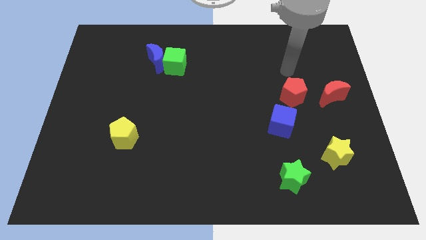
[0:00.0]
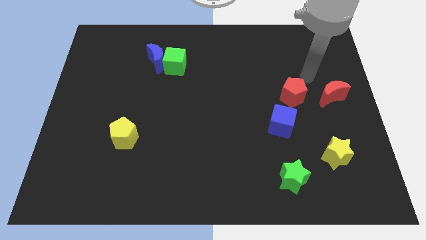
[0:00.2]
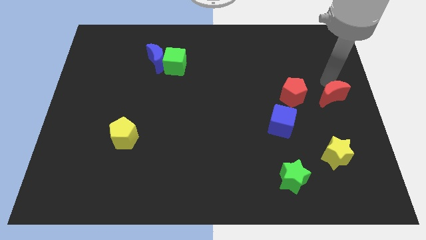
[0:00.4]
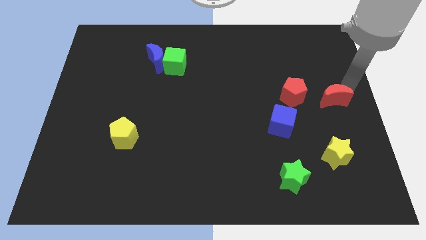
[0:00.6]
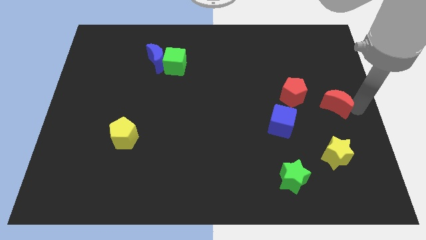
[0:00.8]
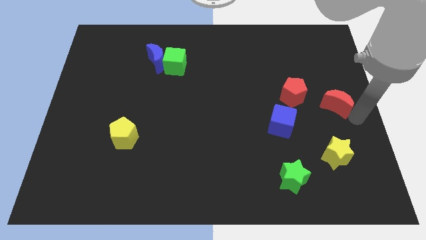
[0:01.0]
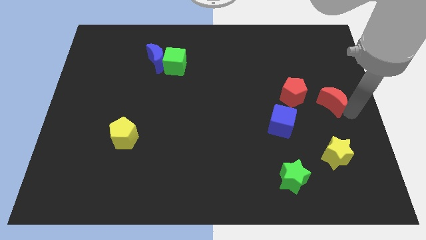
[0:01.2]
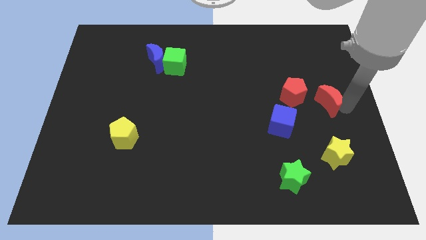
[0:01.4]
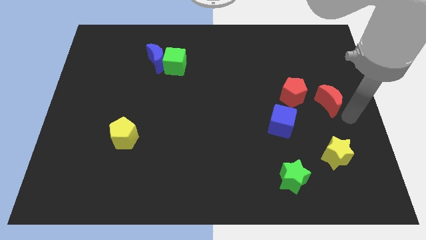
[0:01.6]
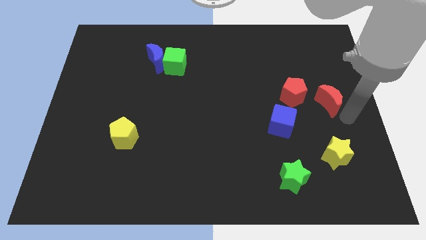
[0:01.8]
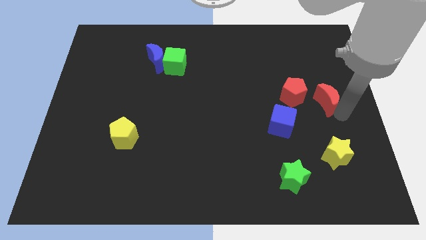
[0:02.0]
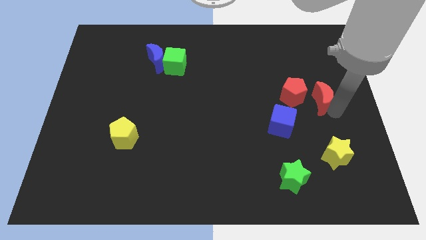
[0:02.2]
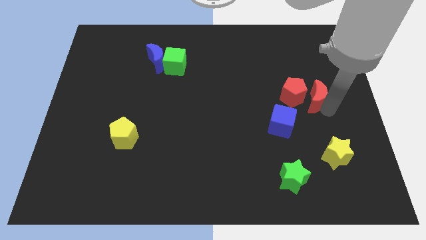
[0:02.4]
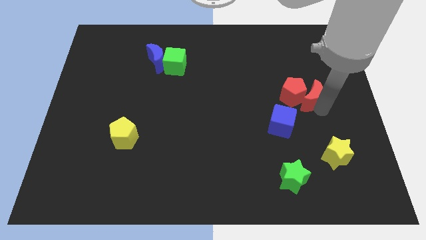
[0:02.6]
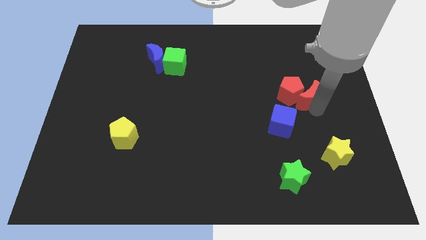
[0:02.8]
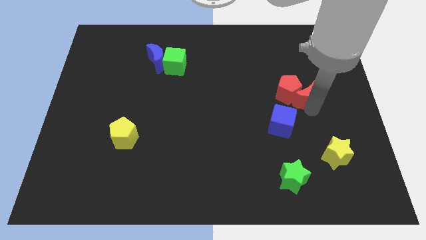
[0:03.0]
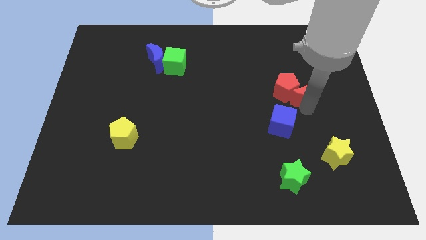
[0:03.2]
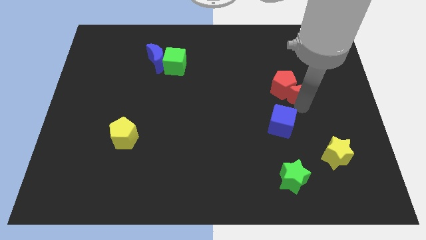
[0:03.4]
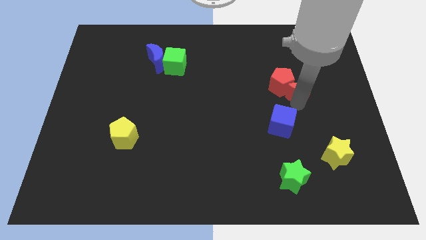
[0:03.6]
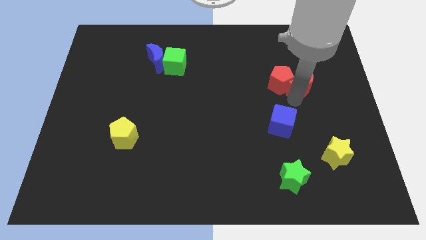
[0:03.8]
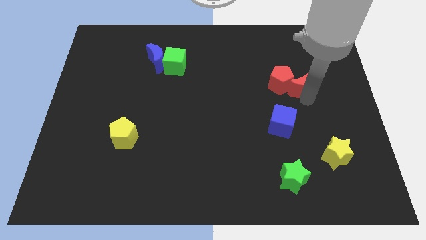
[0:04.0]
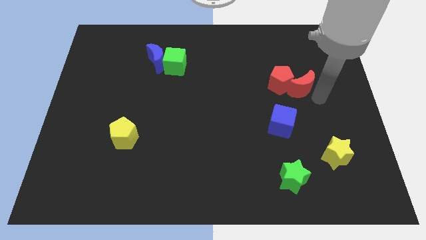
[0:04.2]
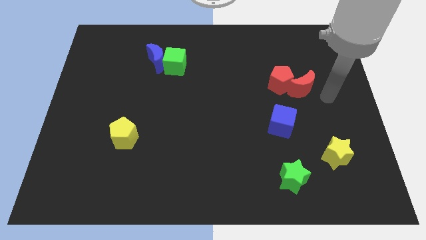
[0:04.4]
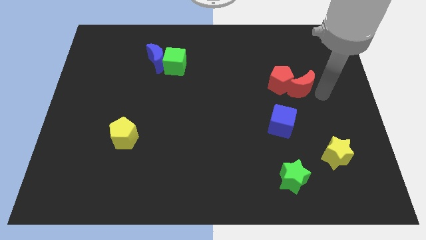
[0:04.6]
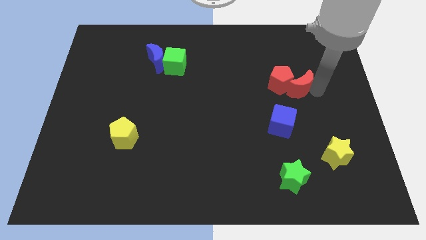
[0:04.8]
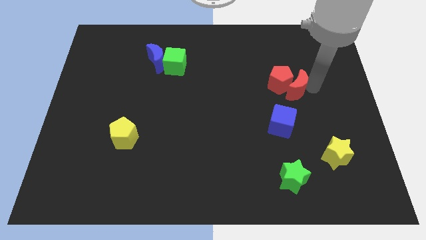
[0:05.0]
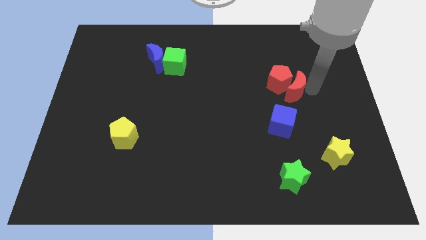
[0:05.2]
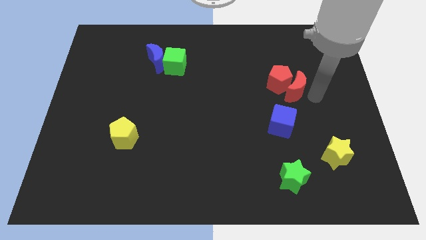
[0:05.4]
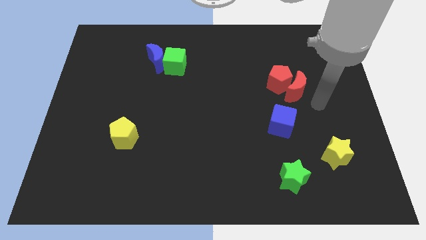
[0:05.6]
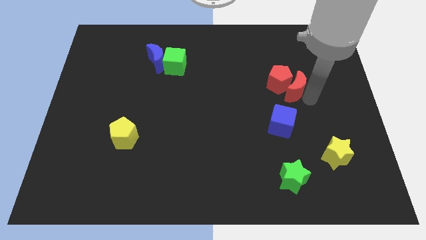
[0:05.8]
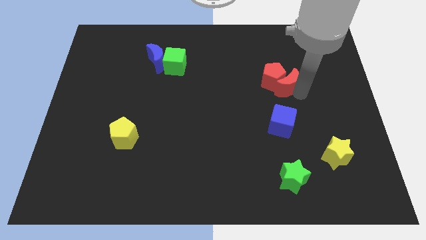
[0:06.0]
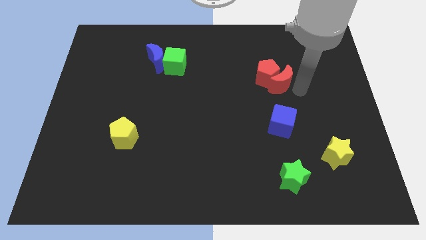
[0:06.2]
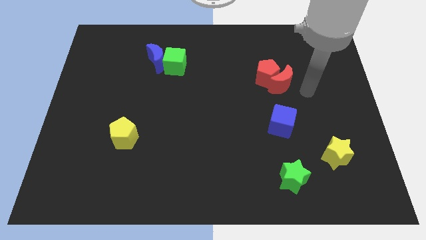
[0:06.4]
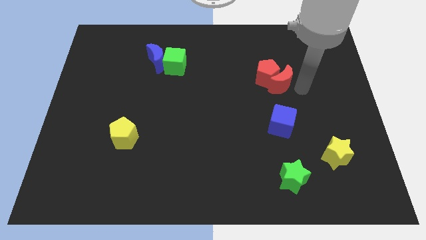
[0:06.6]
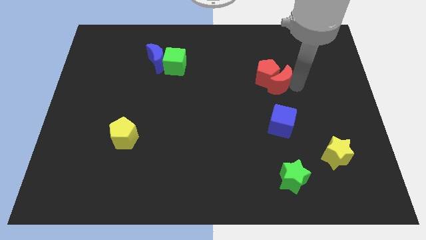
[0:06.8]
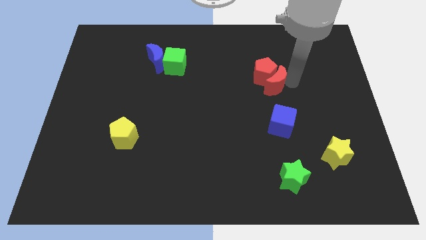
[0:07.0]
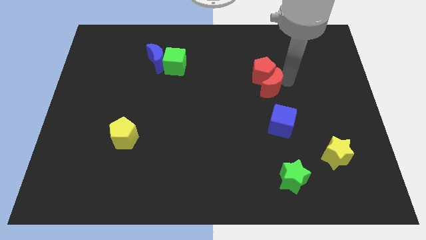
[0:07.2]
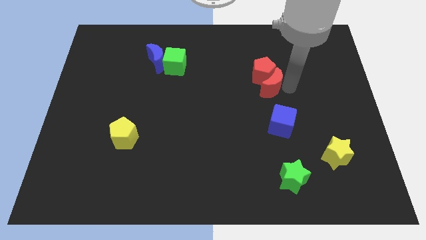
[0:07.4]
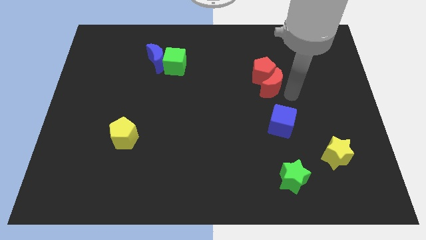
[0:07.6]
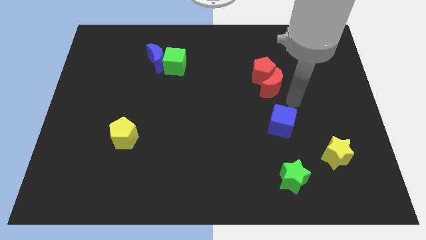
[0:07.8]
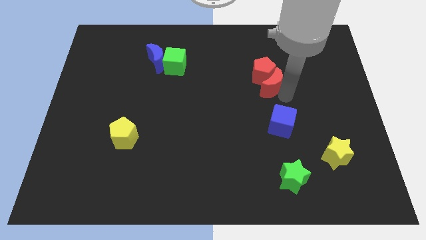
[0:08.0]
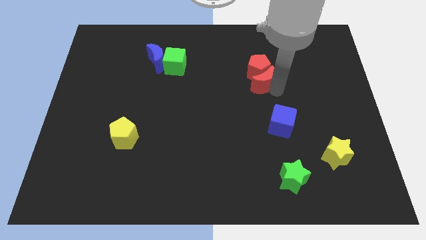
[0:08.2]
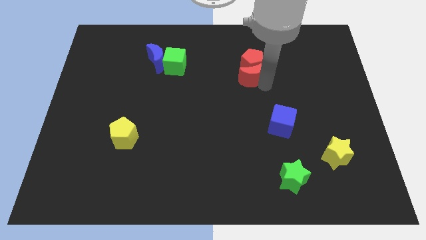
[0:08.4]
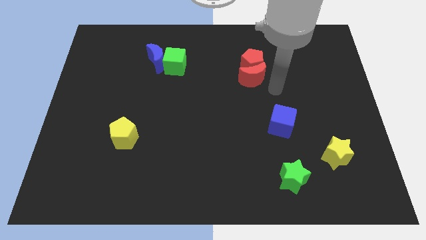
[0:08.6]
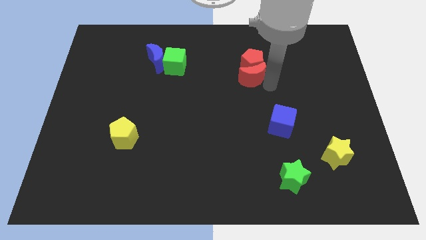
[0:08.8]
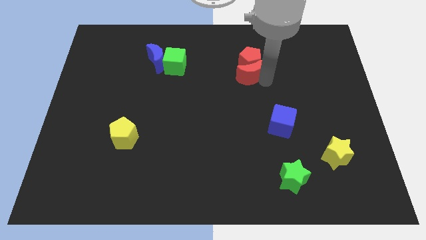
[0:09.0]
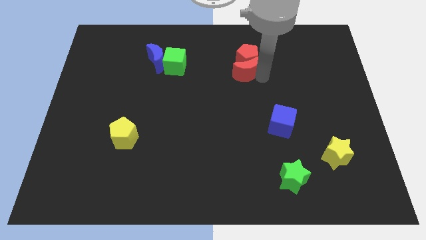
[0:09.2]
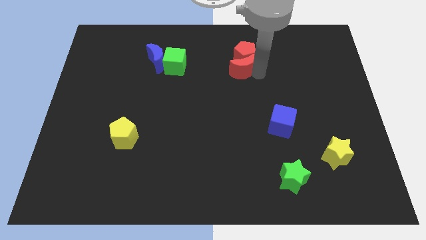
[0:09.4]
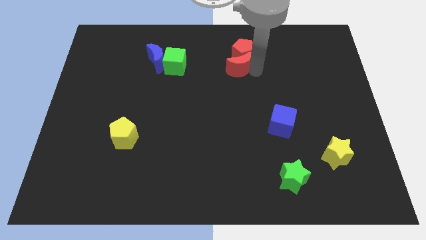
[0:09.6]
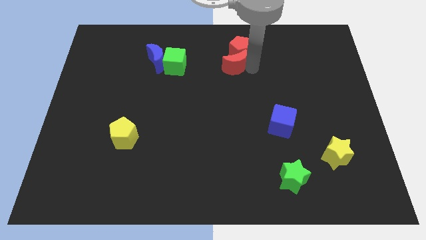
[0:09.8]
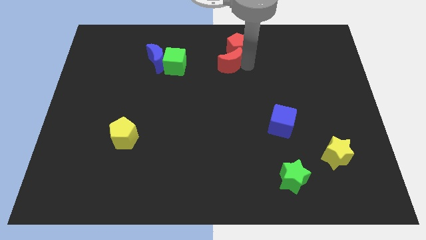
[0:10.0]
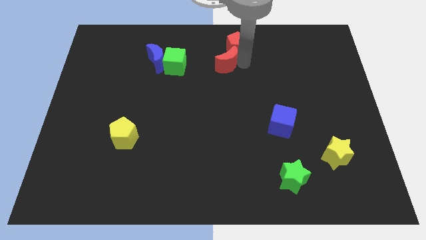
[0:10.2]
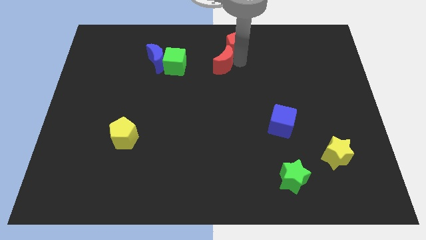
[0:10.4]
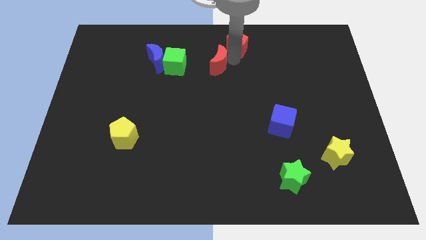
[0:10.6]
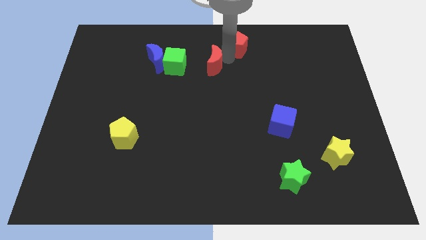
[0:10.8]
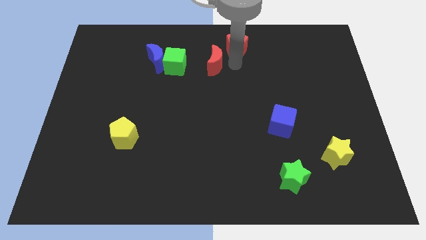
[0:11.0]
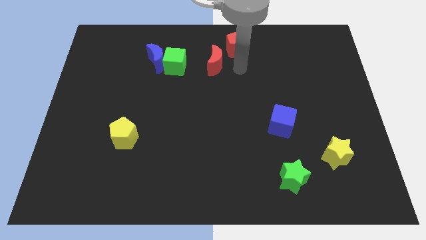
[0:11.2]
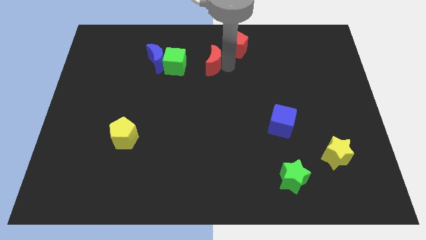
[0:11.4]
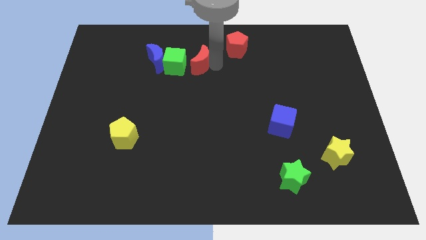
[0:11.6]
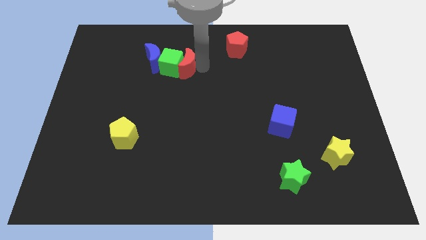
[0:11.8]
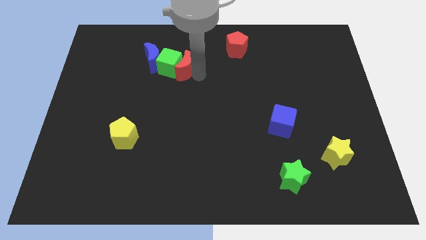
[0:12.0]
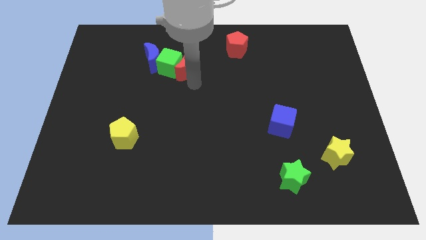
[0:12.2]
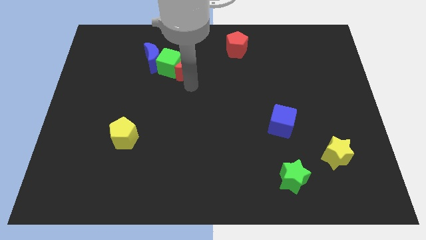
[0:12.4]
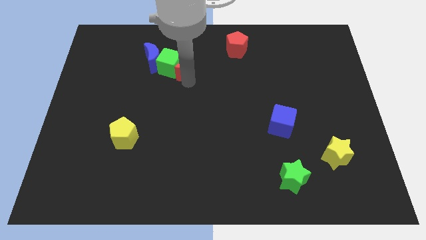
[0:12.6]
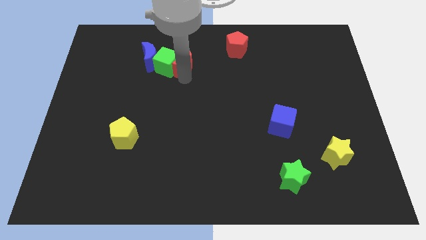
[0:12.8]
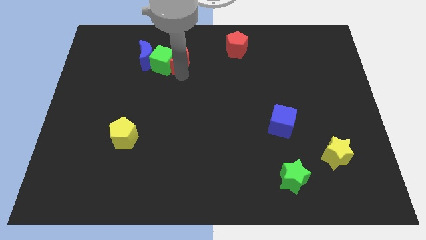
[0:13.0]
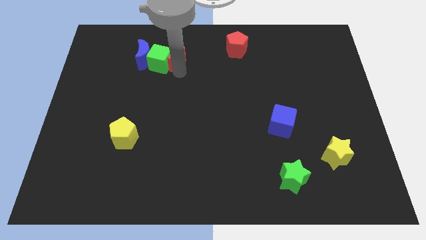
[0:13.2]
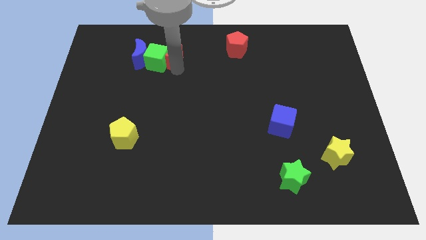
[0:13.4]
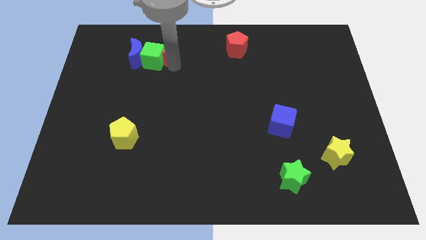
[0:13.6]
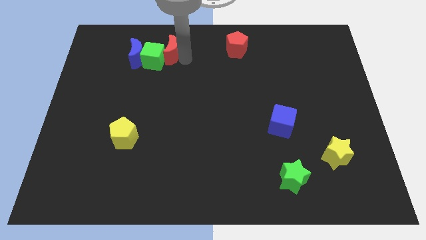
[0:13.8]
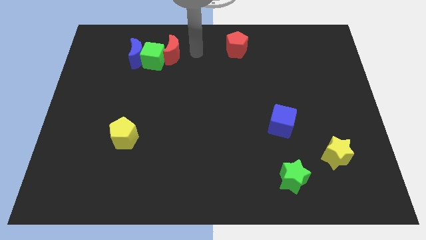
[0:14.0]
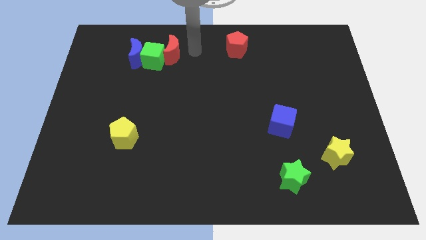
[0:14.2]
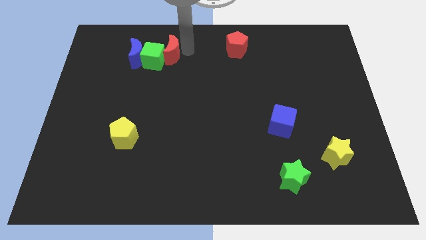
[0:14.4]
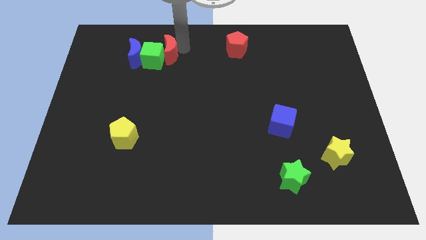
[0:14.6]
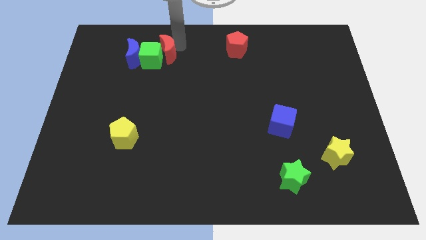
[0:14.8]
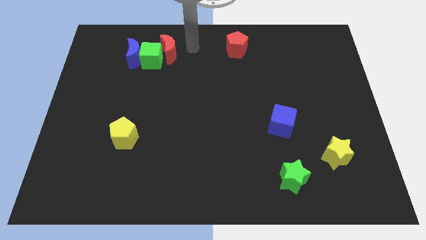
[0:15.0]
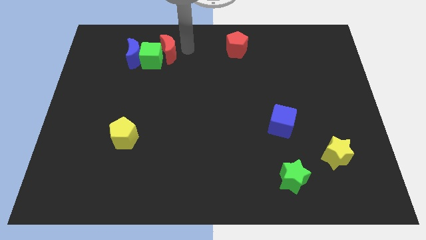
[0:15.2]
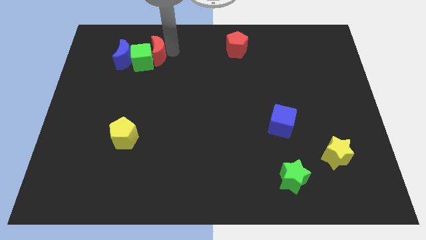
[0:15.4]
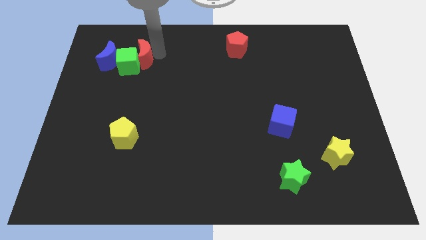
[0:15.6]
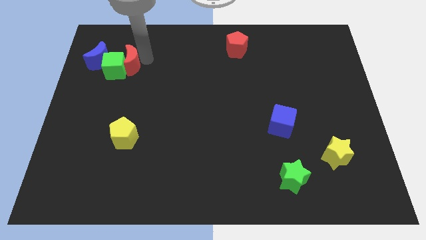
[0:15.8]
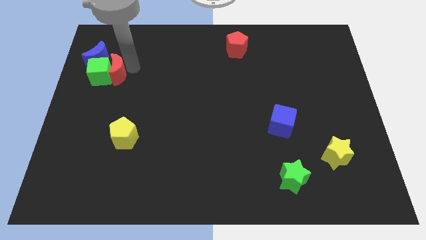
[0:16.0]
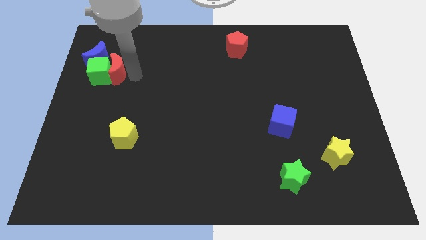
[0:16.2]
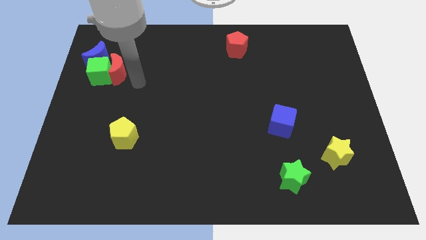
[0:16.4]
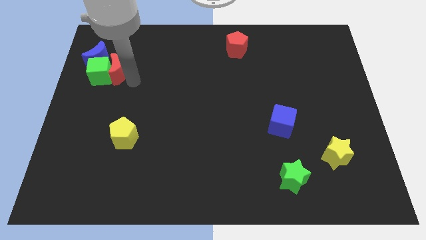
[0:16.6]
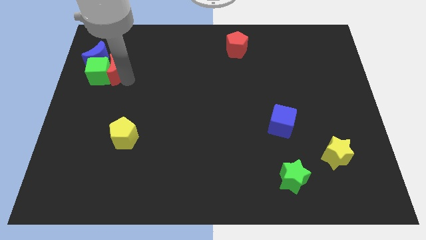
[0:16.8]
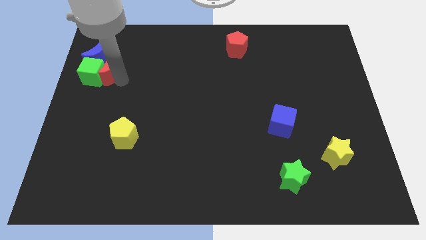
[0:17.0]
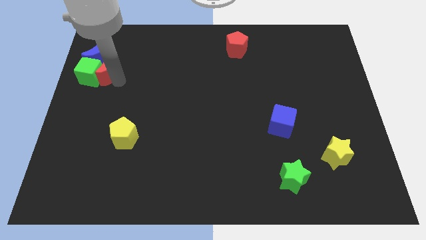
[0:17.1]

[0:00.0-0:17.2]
slide the red moon close to the blue moon
